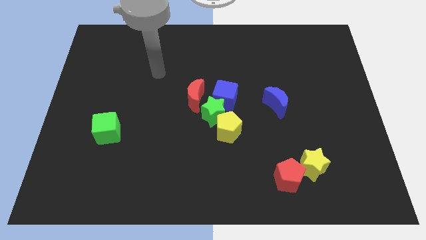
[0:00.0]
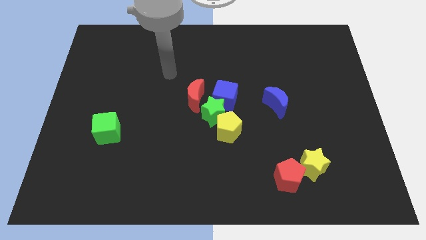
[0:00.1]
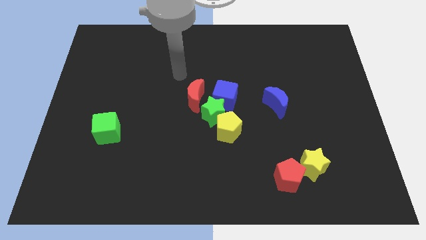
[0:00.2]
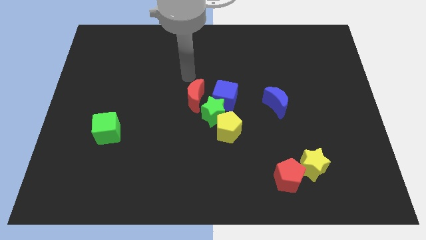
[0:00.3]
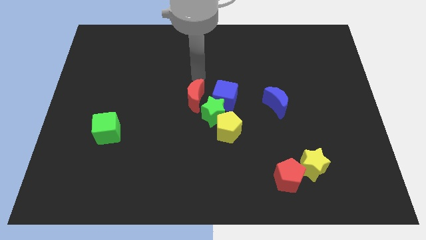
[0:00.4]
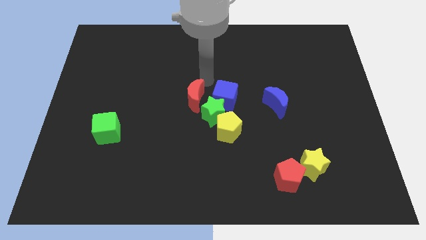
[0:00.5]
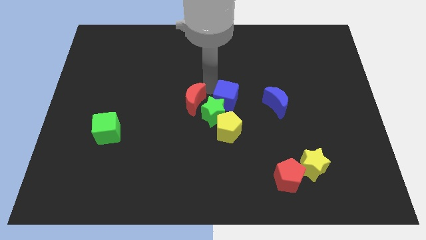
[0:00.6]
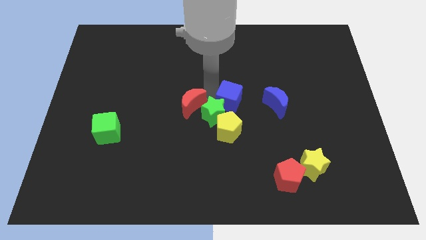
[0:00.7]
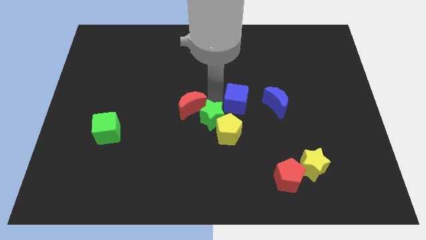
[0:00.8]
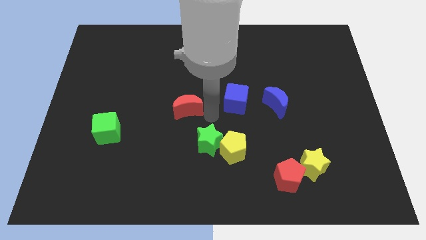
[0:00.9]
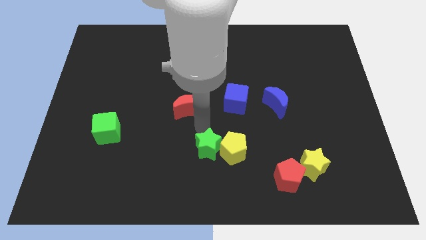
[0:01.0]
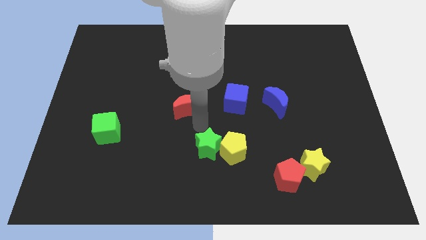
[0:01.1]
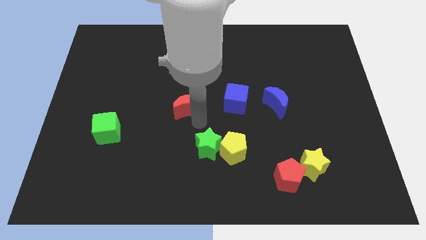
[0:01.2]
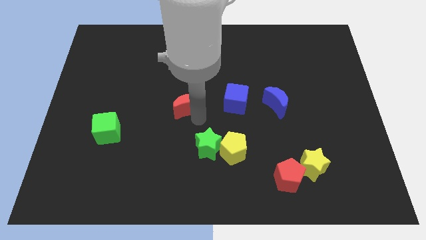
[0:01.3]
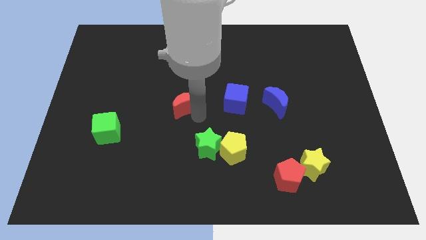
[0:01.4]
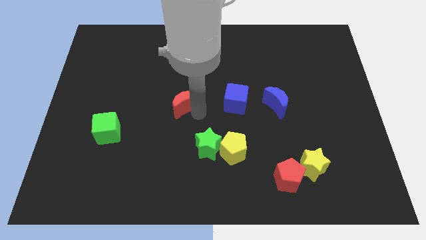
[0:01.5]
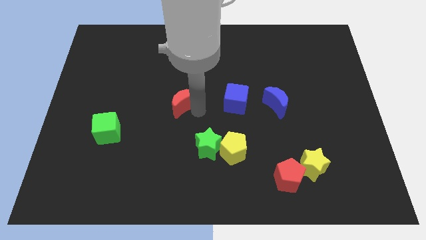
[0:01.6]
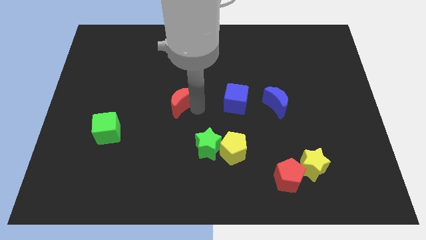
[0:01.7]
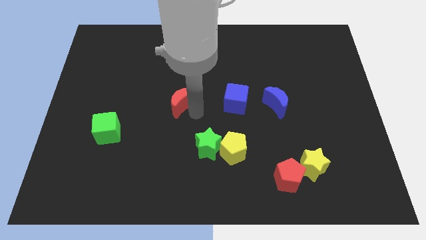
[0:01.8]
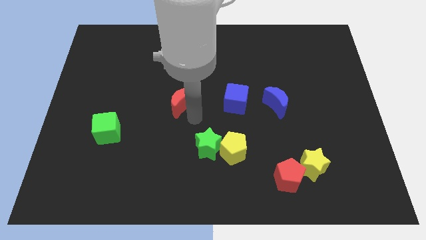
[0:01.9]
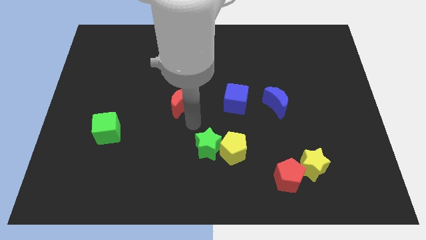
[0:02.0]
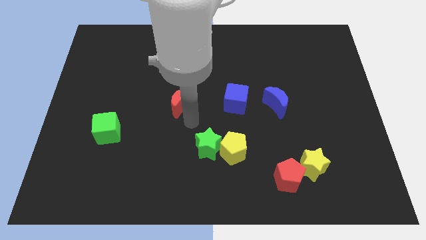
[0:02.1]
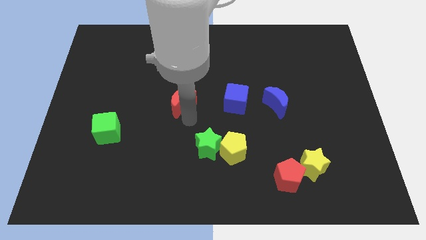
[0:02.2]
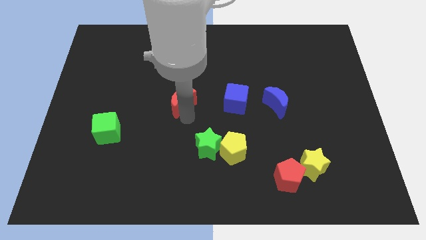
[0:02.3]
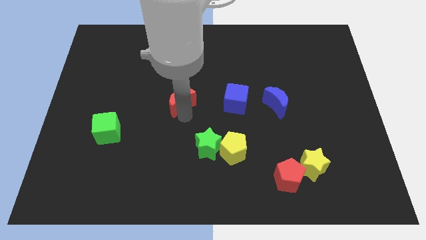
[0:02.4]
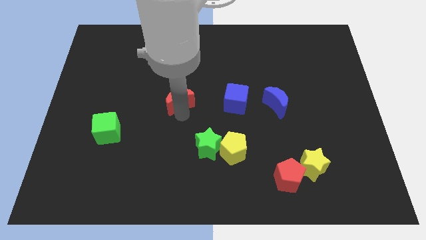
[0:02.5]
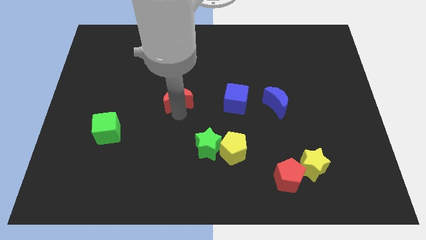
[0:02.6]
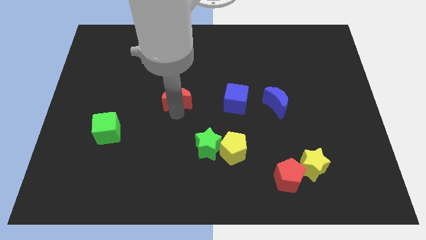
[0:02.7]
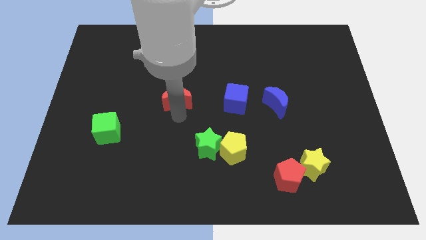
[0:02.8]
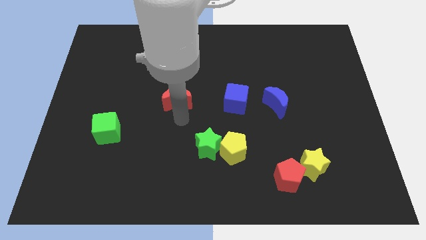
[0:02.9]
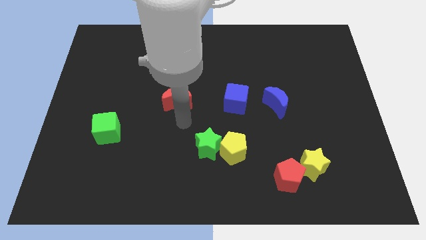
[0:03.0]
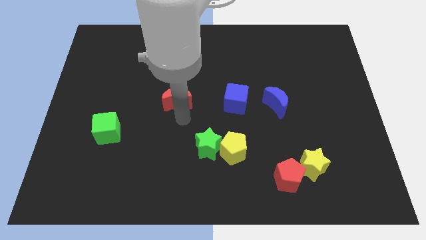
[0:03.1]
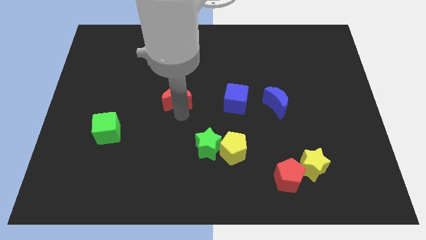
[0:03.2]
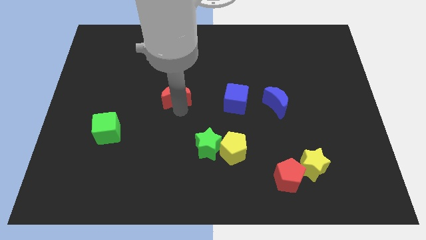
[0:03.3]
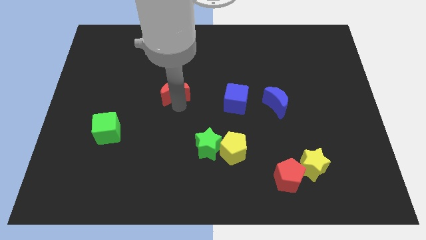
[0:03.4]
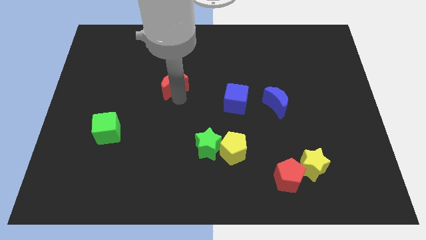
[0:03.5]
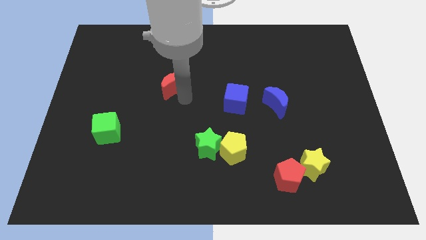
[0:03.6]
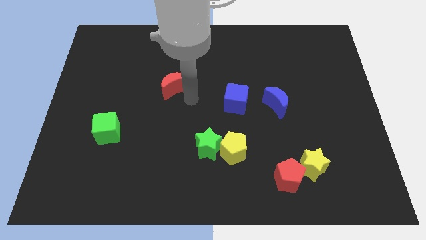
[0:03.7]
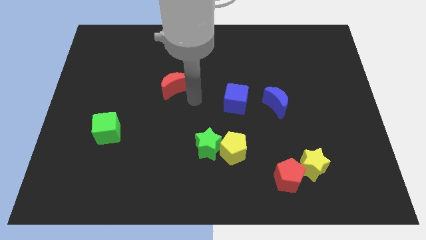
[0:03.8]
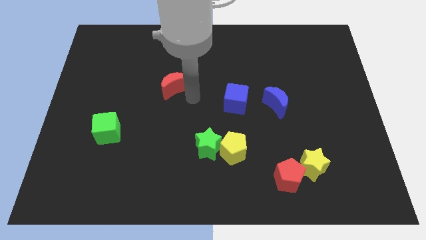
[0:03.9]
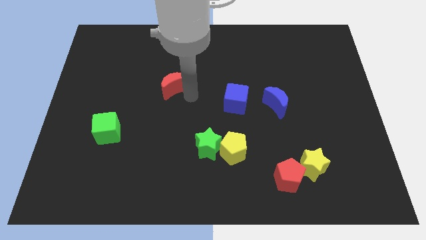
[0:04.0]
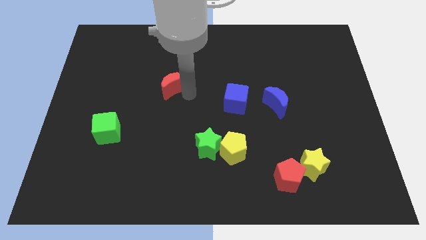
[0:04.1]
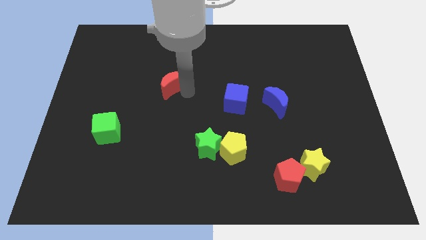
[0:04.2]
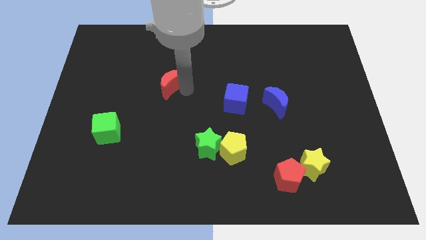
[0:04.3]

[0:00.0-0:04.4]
slightly slide the red moon up and then left

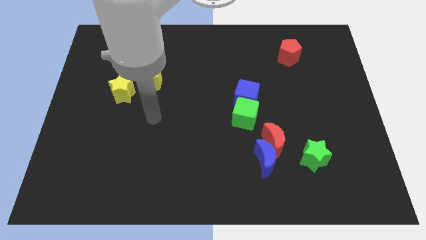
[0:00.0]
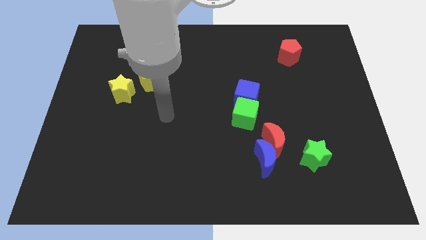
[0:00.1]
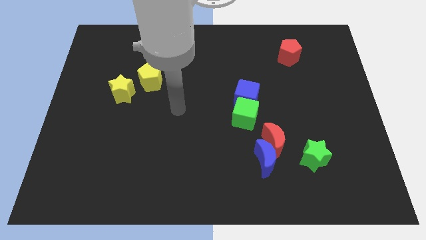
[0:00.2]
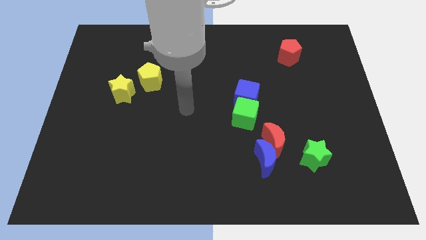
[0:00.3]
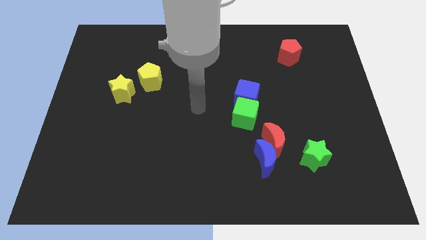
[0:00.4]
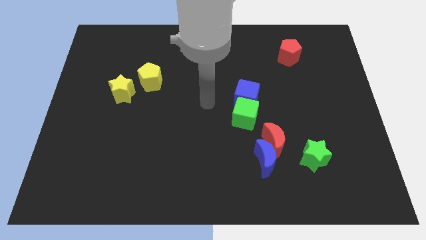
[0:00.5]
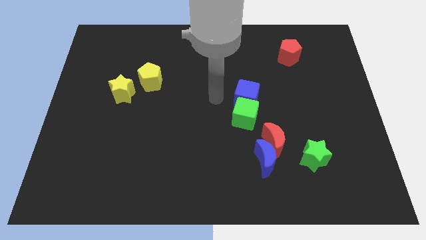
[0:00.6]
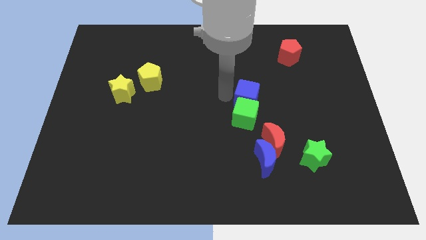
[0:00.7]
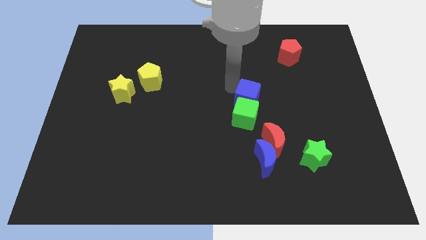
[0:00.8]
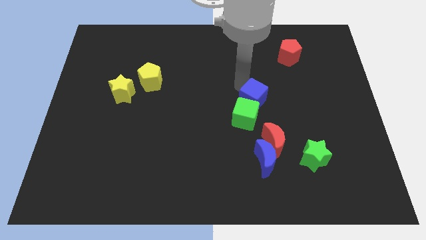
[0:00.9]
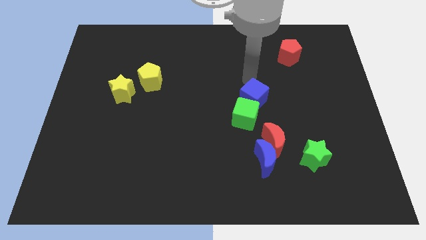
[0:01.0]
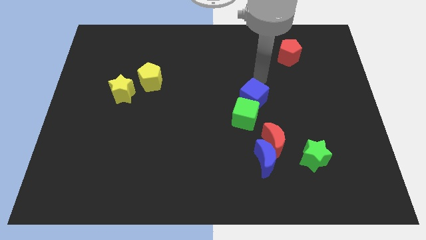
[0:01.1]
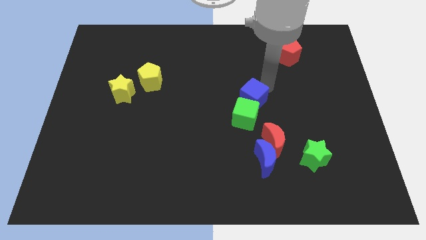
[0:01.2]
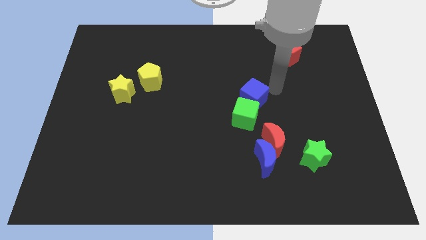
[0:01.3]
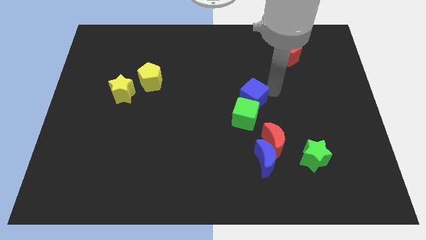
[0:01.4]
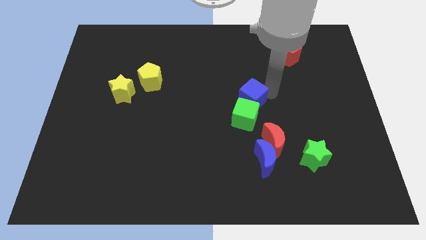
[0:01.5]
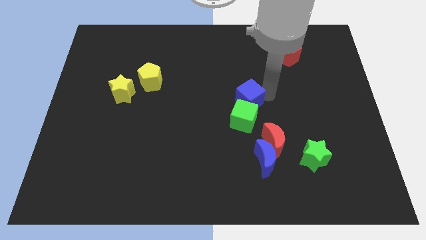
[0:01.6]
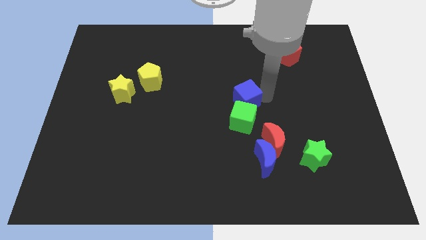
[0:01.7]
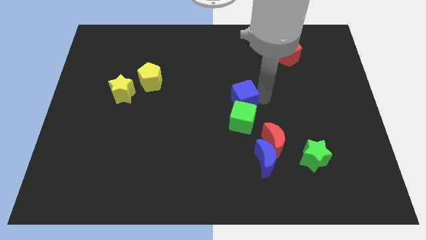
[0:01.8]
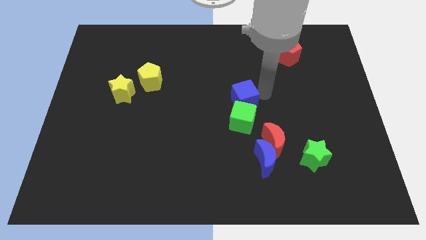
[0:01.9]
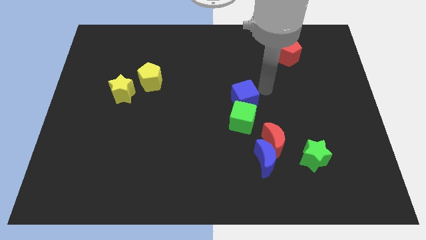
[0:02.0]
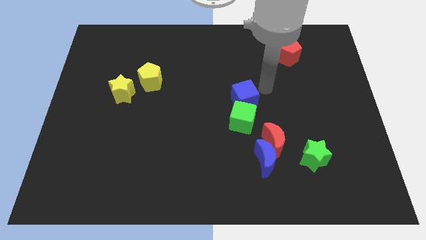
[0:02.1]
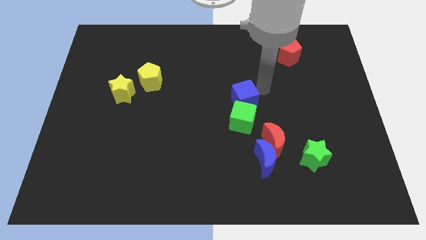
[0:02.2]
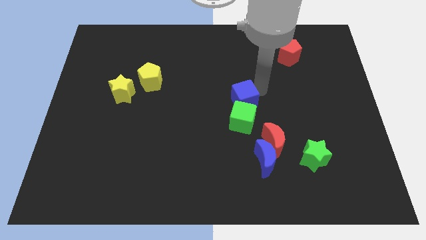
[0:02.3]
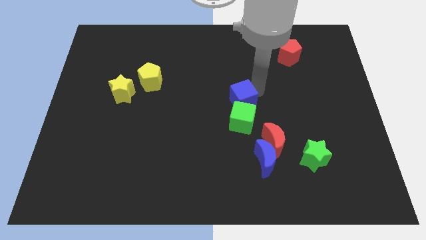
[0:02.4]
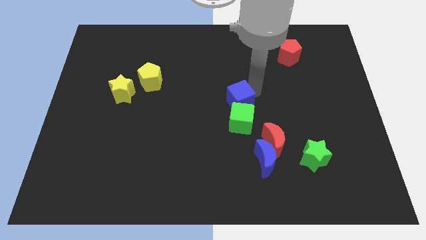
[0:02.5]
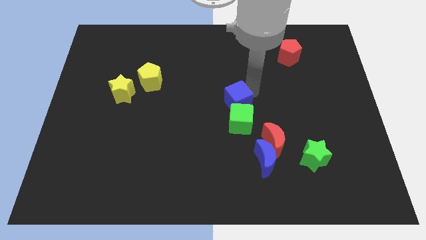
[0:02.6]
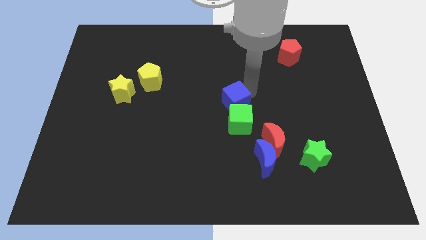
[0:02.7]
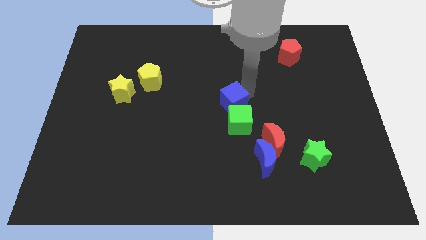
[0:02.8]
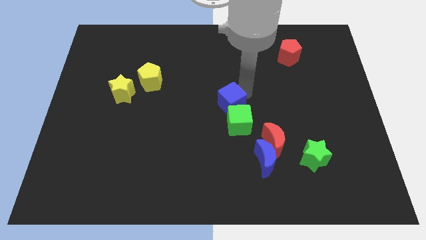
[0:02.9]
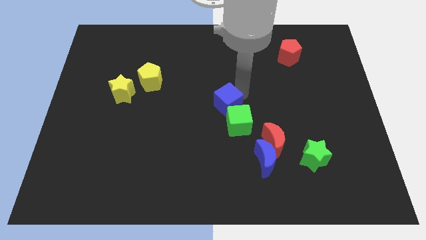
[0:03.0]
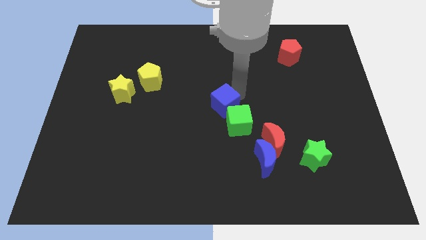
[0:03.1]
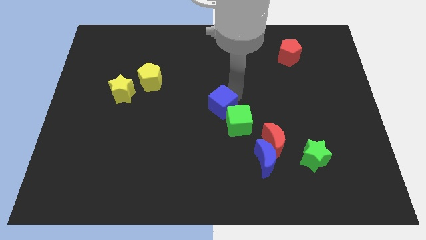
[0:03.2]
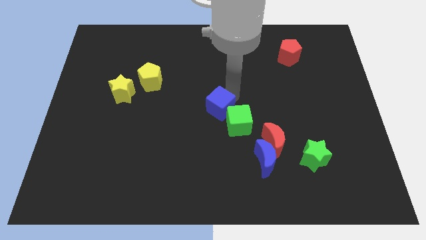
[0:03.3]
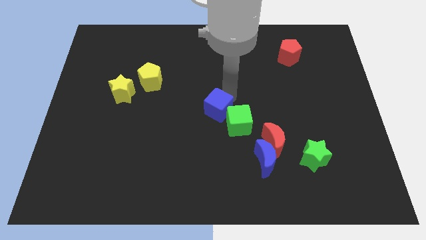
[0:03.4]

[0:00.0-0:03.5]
push the blue cube downwards and then left a little
